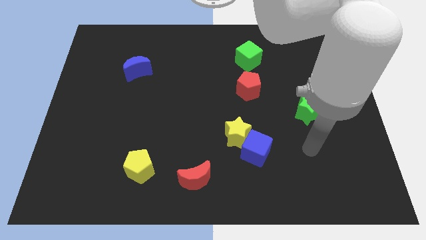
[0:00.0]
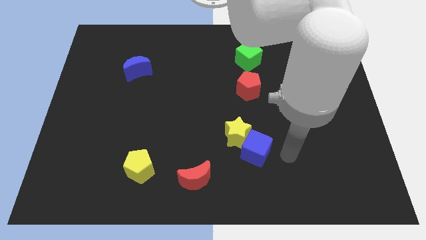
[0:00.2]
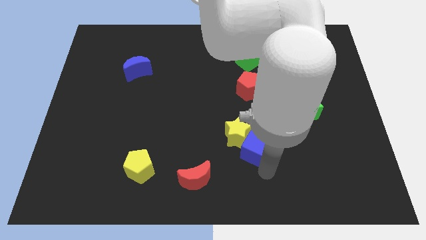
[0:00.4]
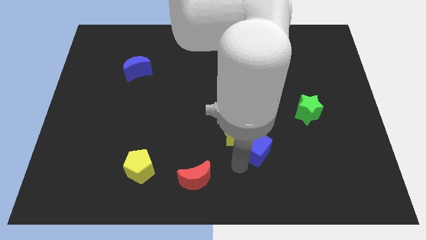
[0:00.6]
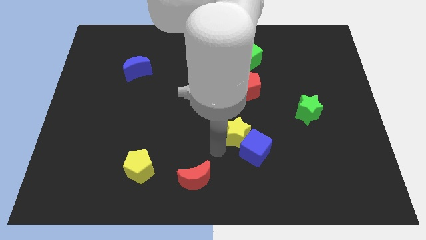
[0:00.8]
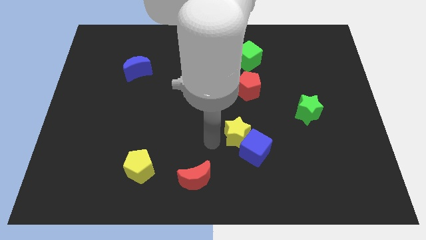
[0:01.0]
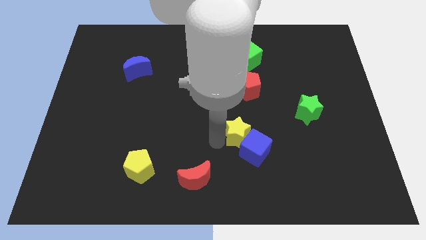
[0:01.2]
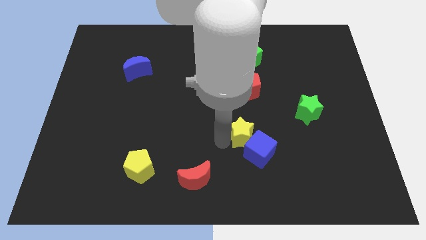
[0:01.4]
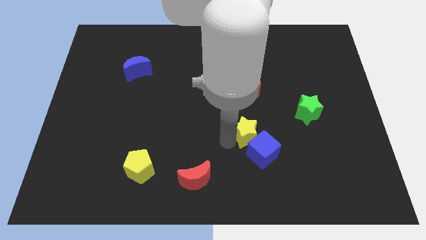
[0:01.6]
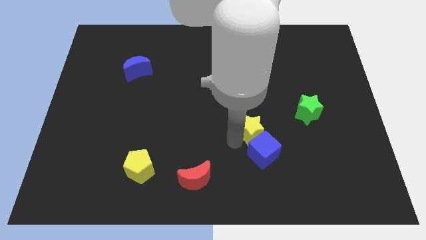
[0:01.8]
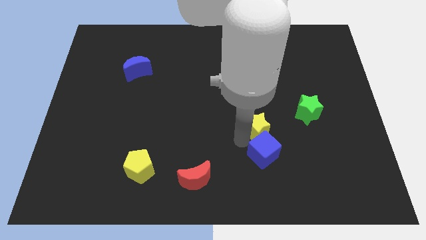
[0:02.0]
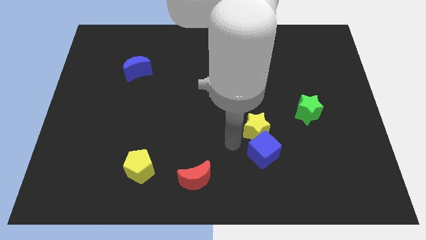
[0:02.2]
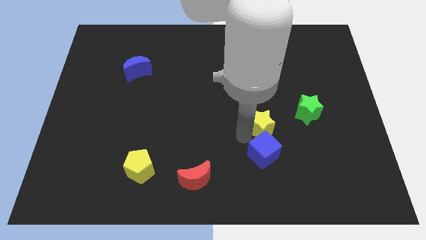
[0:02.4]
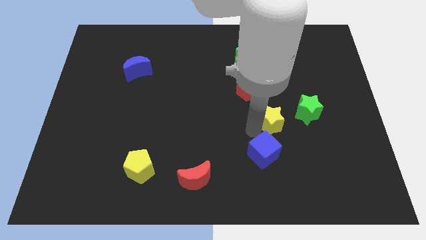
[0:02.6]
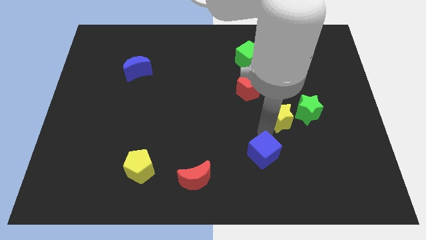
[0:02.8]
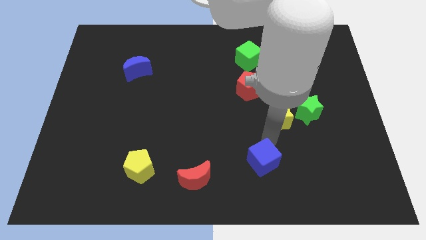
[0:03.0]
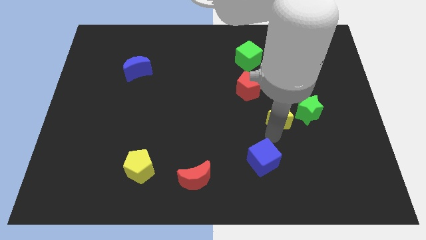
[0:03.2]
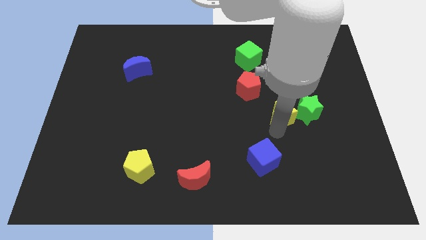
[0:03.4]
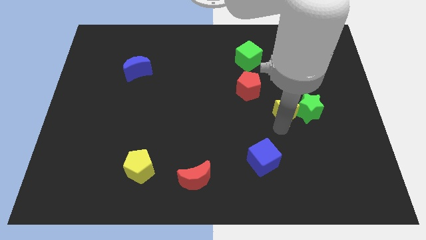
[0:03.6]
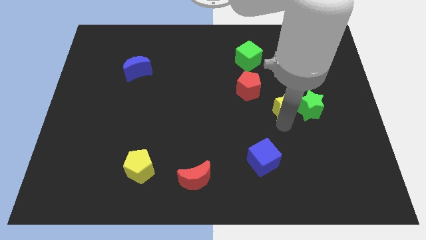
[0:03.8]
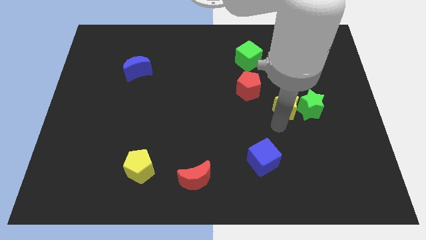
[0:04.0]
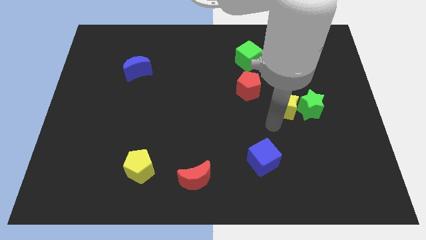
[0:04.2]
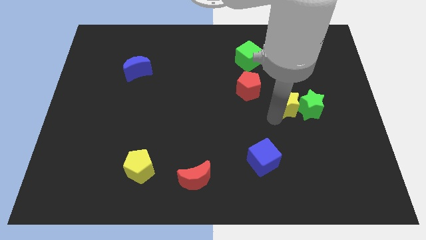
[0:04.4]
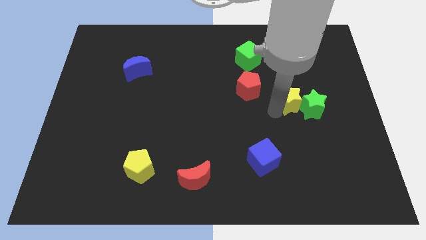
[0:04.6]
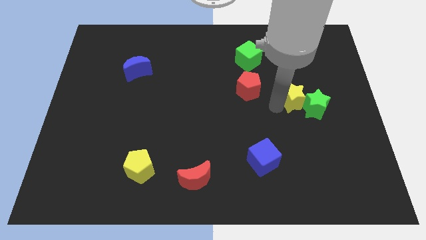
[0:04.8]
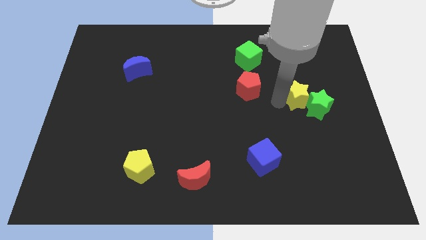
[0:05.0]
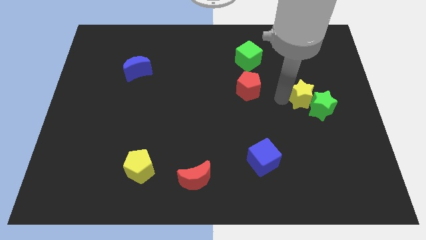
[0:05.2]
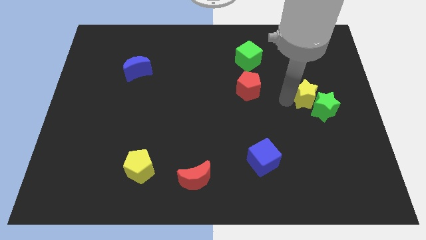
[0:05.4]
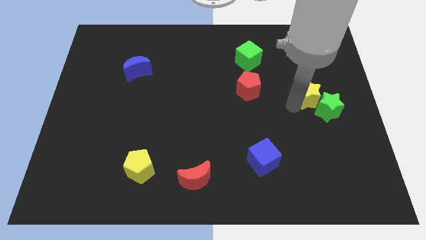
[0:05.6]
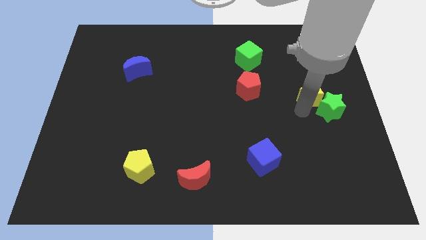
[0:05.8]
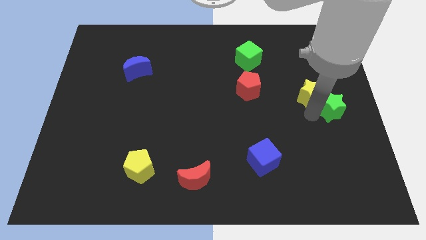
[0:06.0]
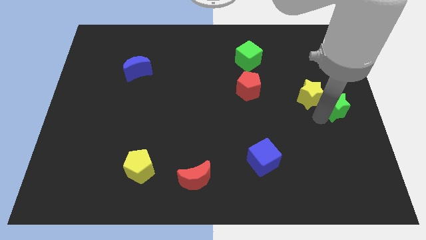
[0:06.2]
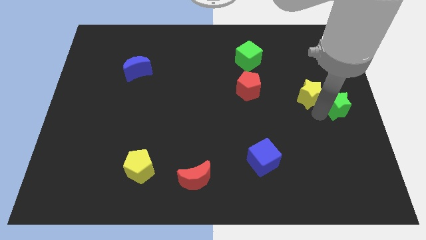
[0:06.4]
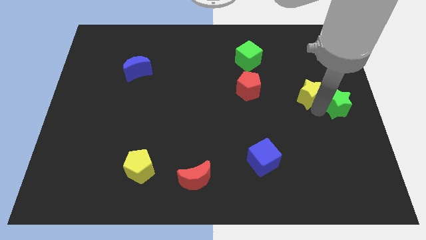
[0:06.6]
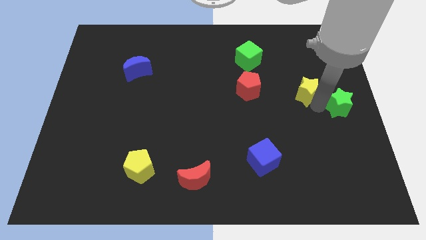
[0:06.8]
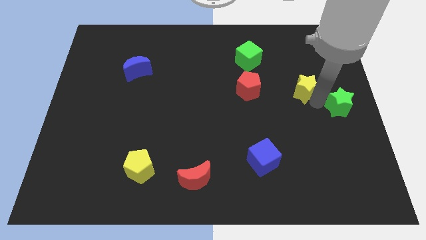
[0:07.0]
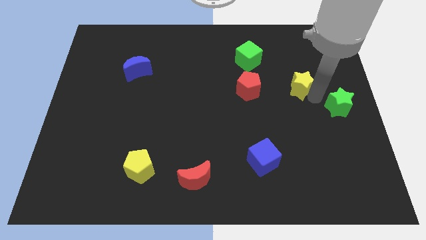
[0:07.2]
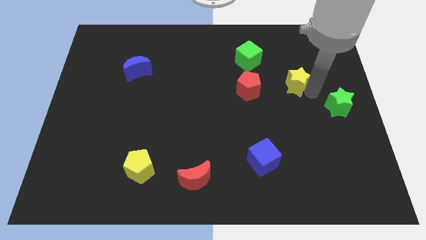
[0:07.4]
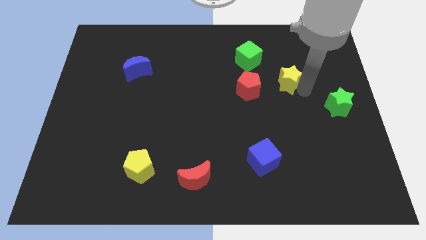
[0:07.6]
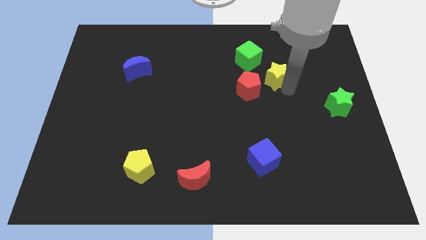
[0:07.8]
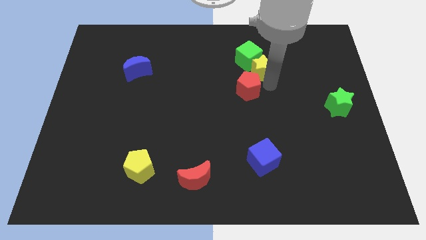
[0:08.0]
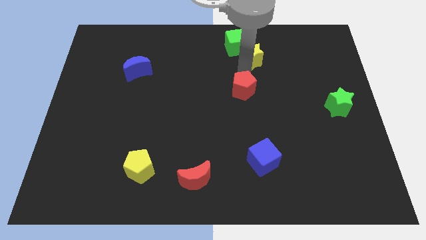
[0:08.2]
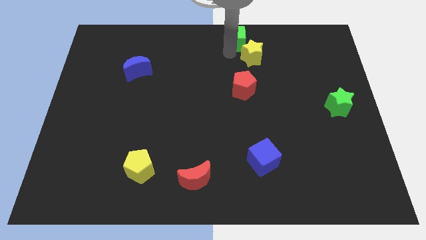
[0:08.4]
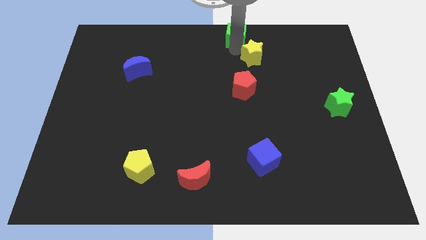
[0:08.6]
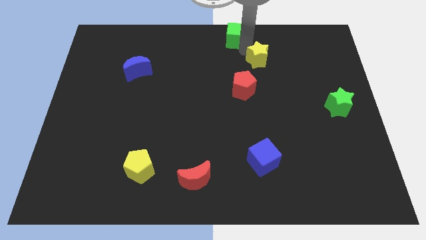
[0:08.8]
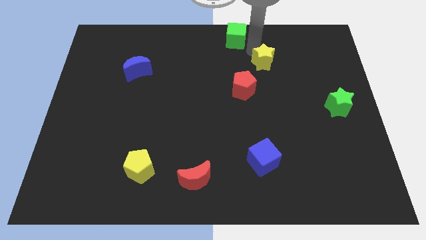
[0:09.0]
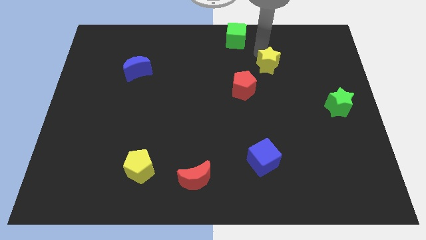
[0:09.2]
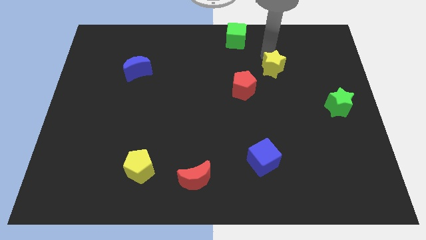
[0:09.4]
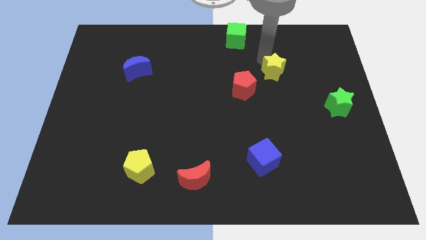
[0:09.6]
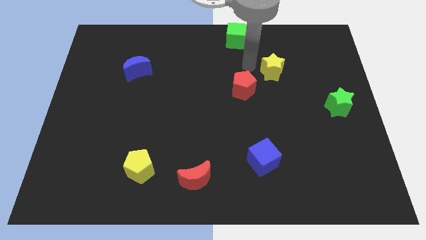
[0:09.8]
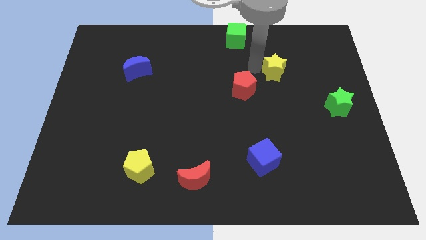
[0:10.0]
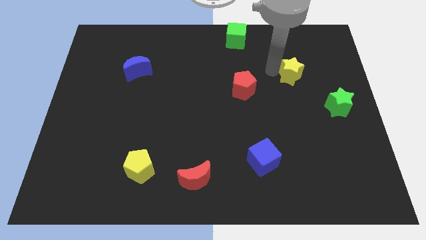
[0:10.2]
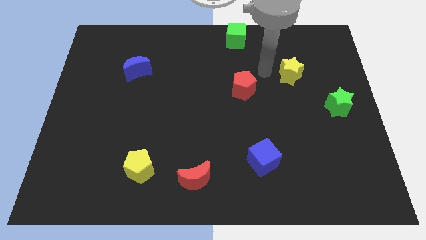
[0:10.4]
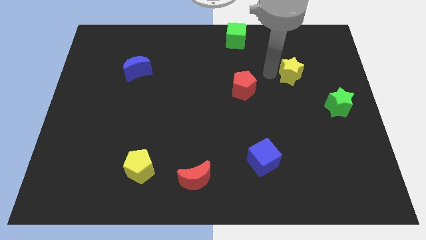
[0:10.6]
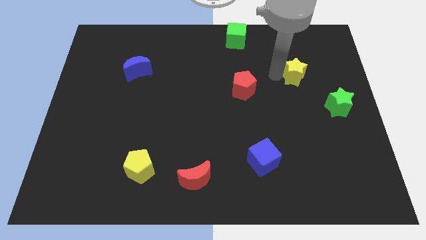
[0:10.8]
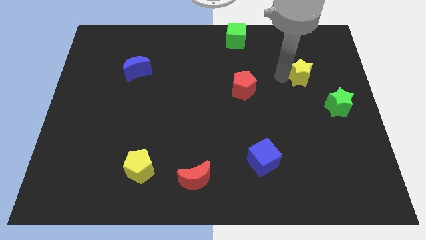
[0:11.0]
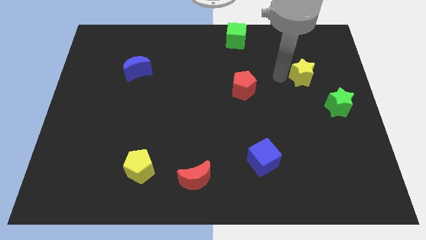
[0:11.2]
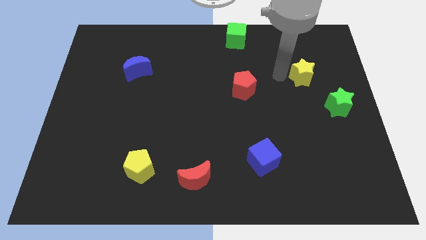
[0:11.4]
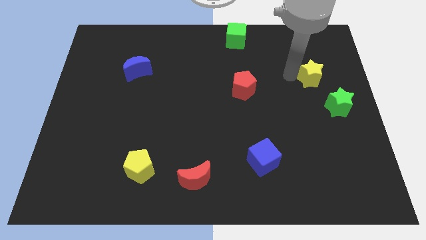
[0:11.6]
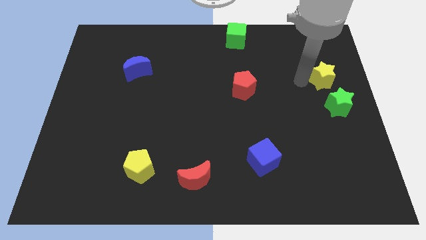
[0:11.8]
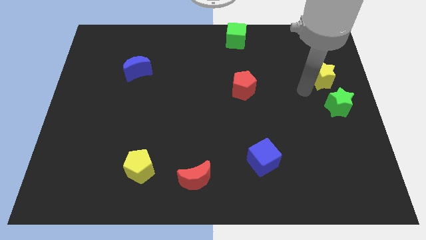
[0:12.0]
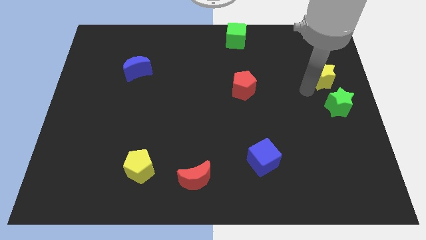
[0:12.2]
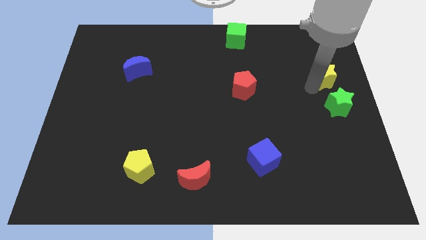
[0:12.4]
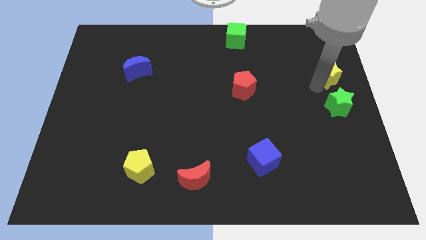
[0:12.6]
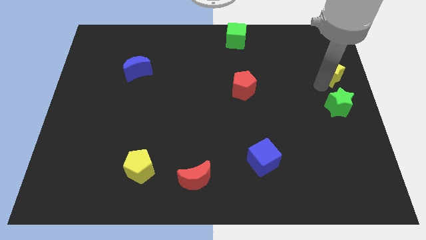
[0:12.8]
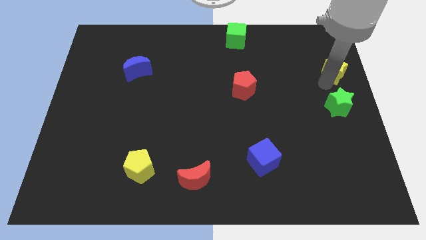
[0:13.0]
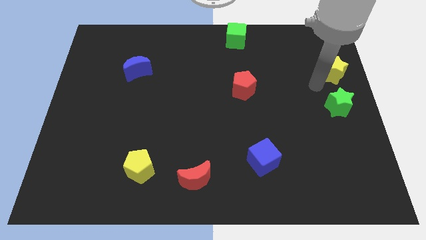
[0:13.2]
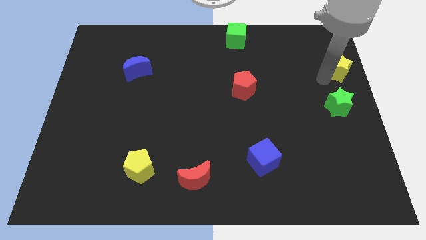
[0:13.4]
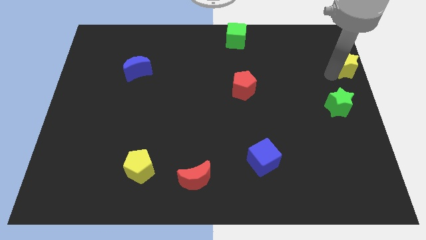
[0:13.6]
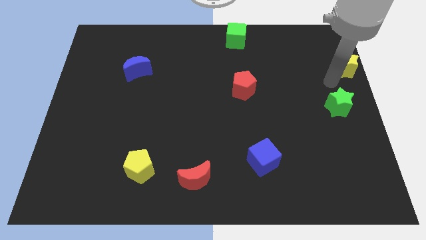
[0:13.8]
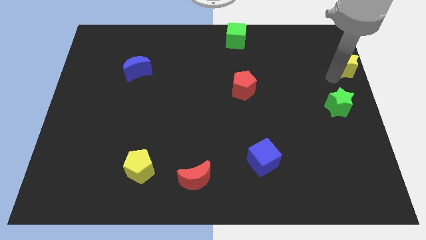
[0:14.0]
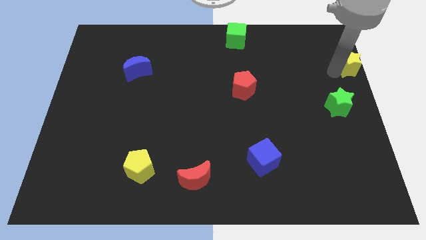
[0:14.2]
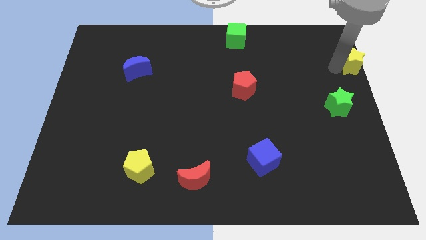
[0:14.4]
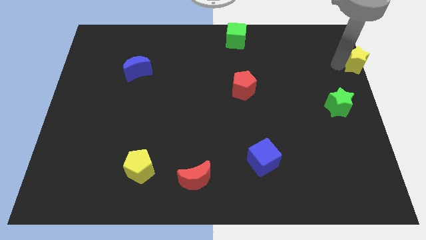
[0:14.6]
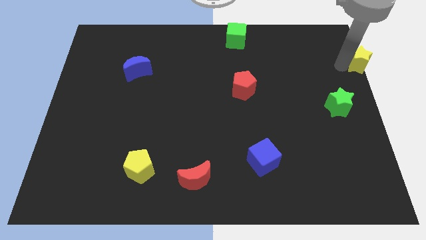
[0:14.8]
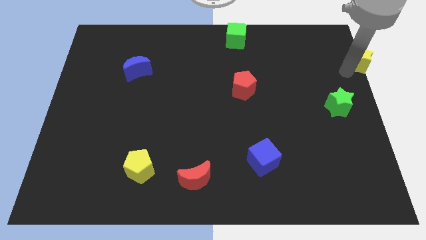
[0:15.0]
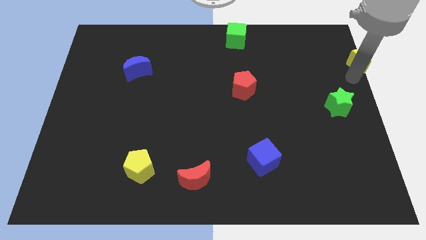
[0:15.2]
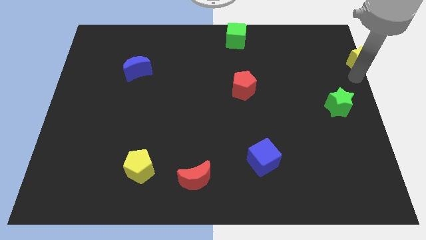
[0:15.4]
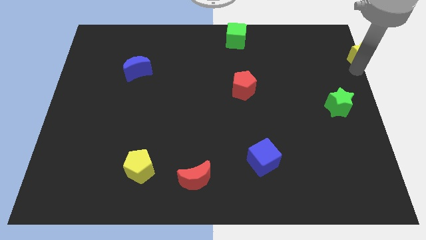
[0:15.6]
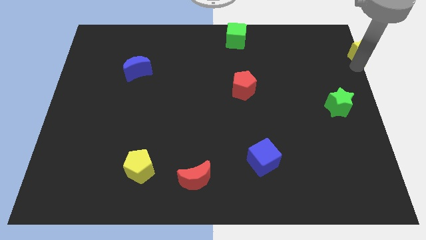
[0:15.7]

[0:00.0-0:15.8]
push the yellow star to the top right
